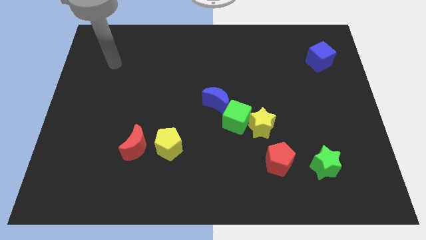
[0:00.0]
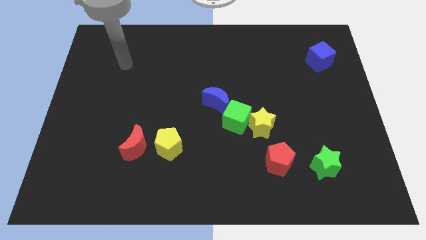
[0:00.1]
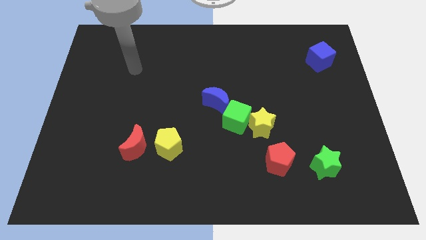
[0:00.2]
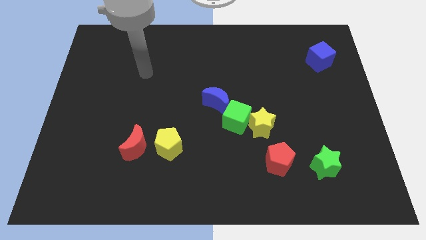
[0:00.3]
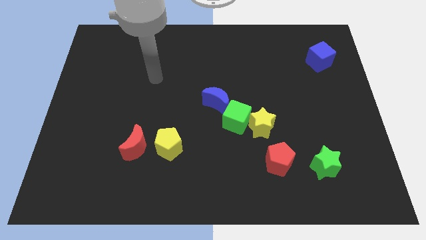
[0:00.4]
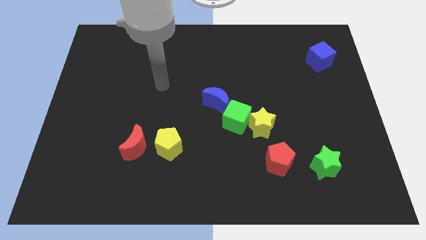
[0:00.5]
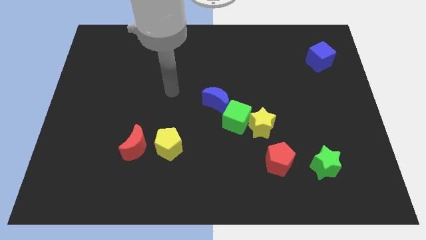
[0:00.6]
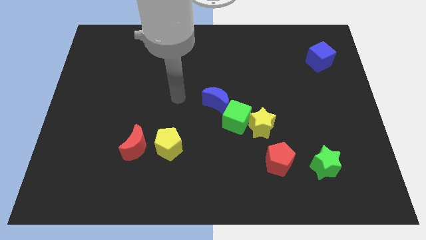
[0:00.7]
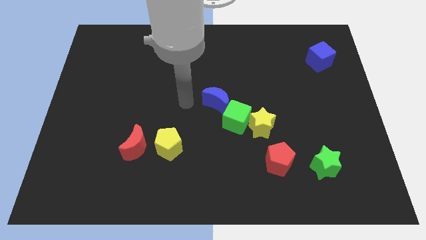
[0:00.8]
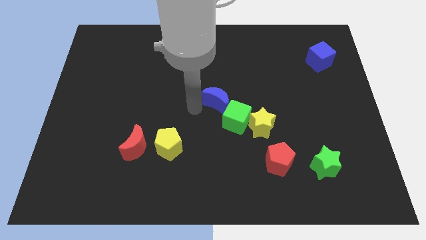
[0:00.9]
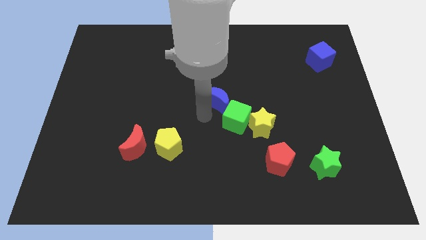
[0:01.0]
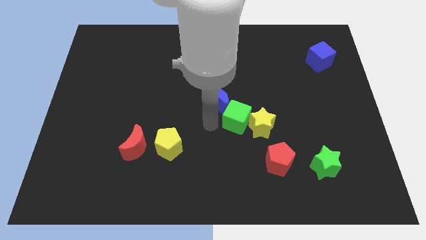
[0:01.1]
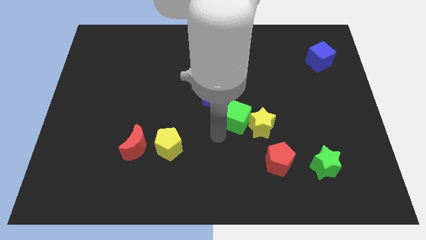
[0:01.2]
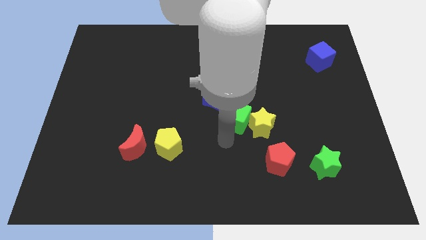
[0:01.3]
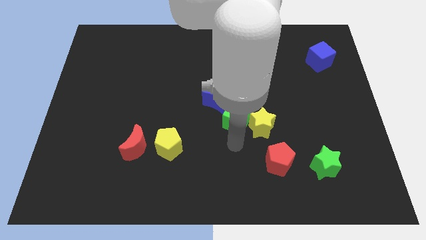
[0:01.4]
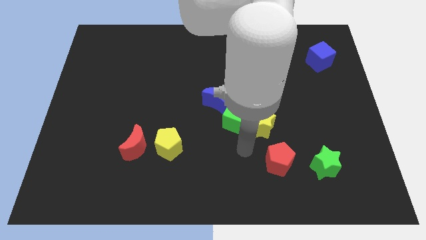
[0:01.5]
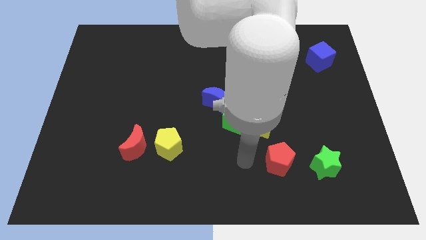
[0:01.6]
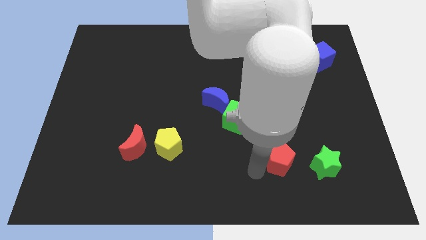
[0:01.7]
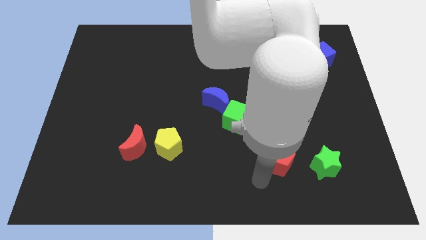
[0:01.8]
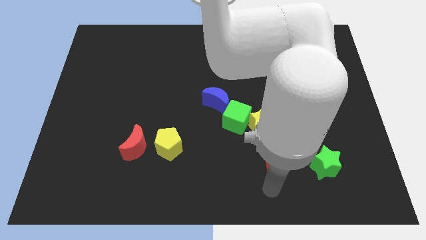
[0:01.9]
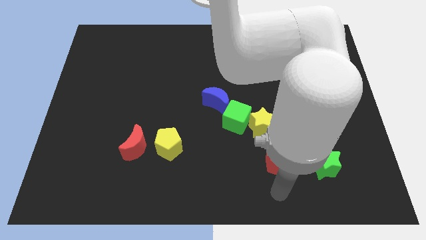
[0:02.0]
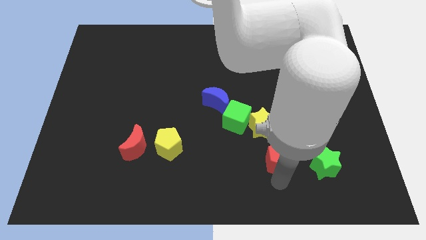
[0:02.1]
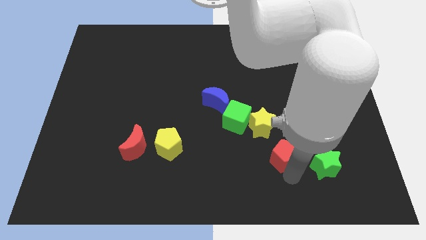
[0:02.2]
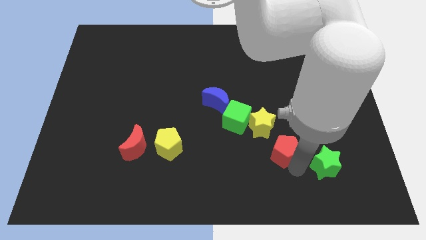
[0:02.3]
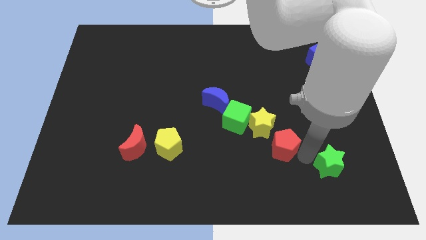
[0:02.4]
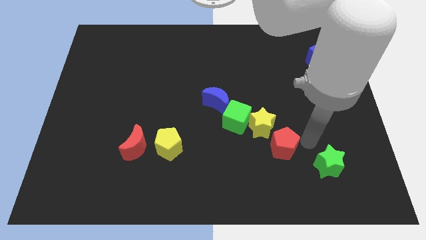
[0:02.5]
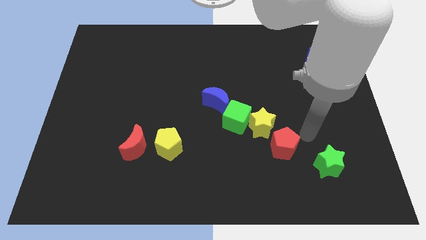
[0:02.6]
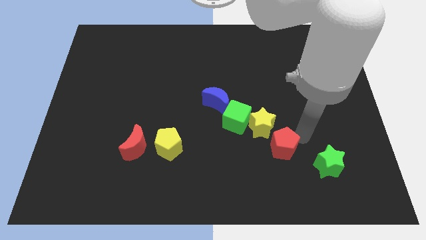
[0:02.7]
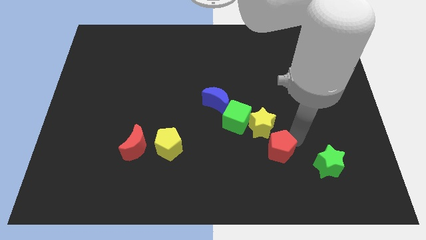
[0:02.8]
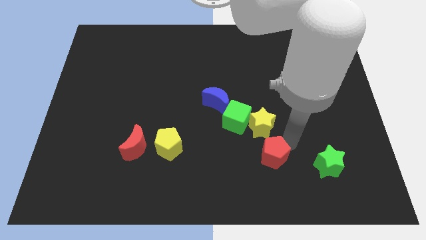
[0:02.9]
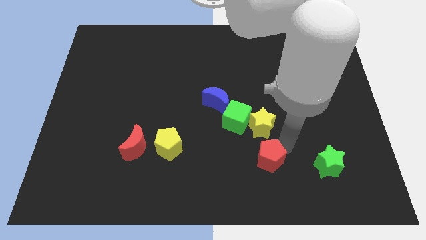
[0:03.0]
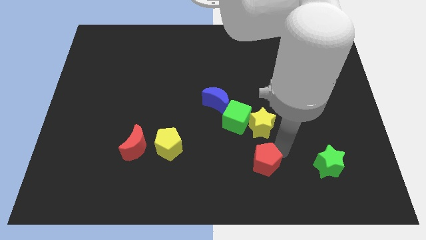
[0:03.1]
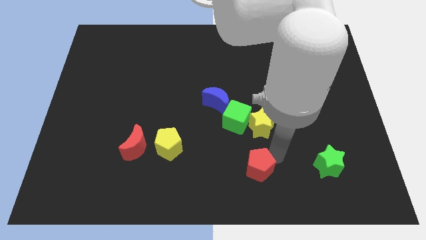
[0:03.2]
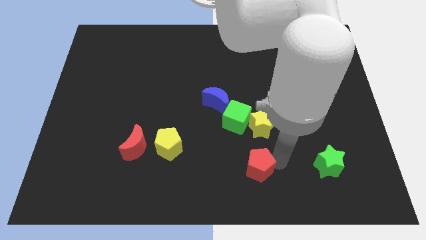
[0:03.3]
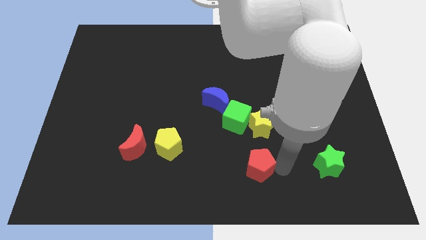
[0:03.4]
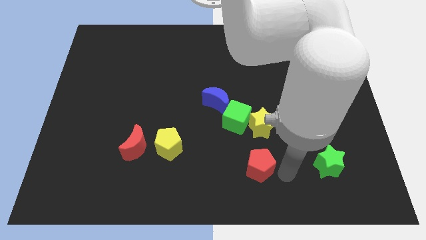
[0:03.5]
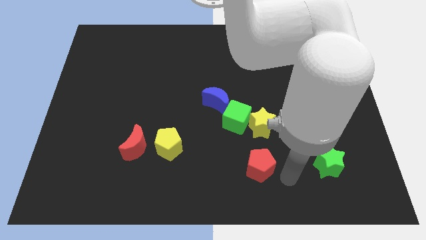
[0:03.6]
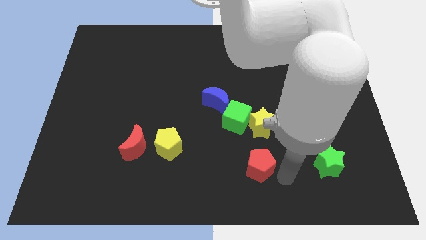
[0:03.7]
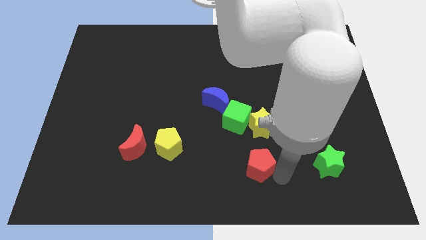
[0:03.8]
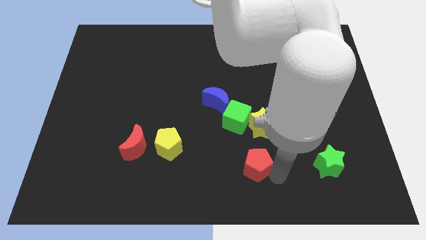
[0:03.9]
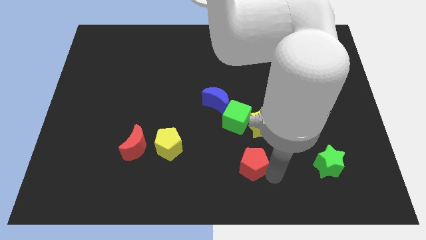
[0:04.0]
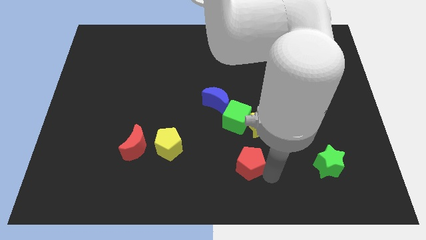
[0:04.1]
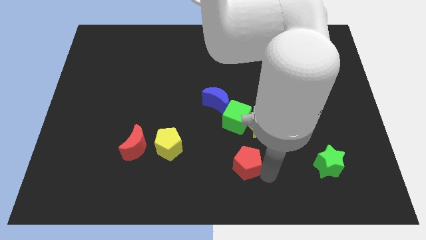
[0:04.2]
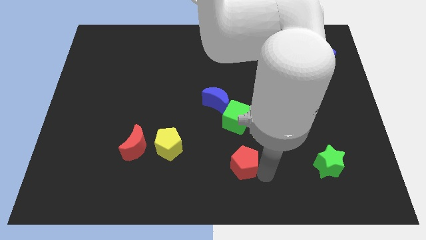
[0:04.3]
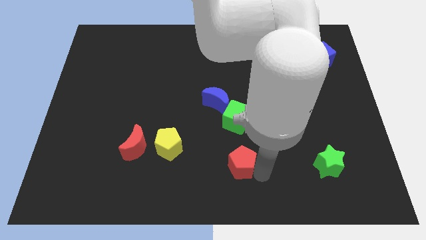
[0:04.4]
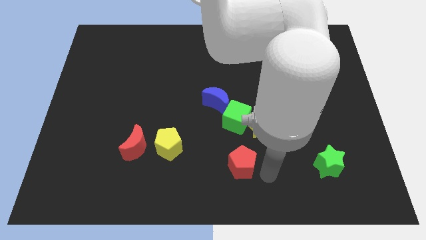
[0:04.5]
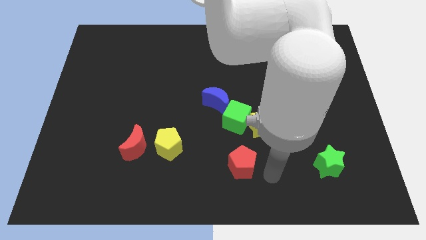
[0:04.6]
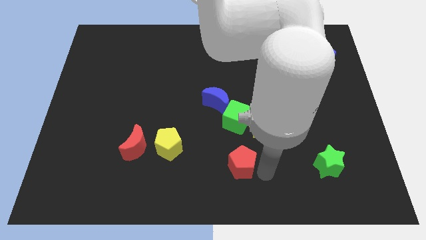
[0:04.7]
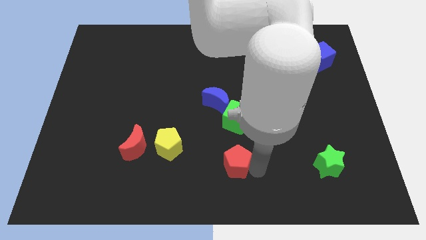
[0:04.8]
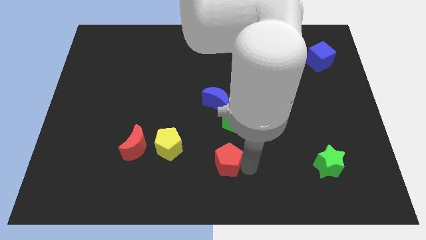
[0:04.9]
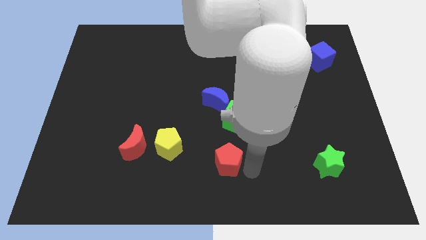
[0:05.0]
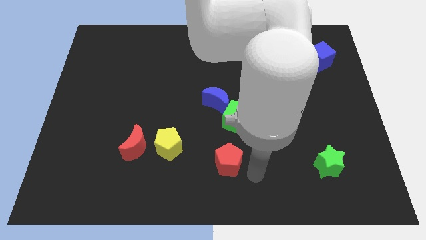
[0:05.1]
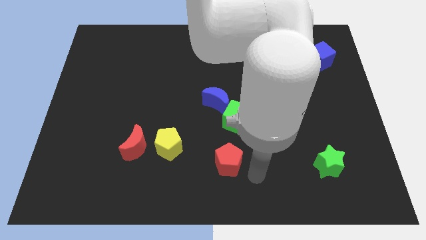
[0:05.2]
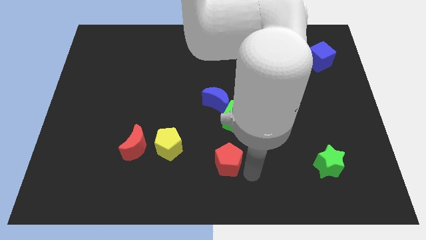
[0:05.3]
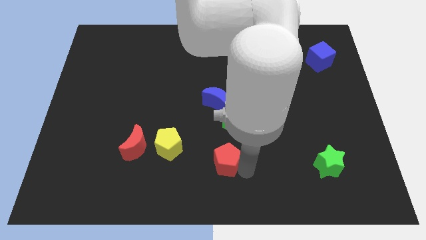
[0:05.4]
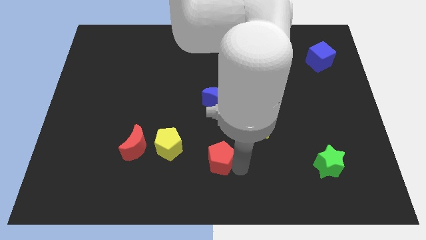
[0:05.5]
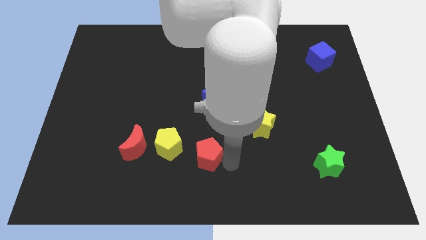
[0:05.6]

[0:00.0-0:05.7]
push the red pentagon to the right side of the red moon

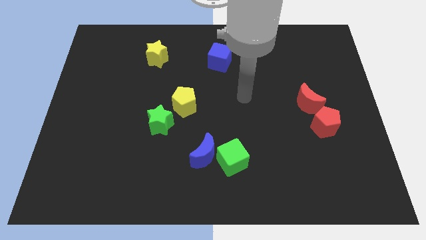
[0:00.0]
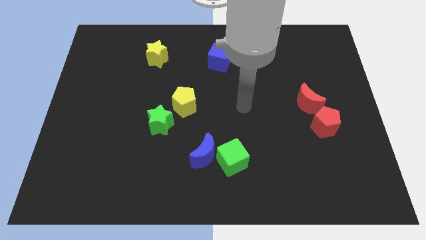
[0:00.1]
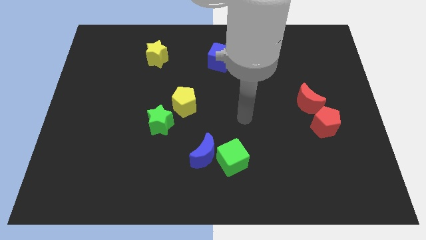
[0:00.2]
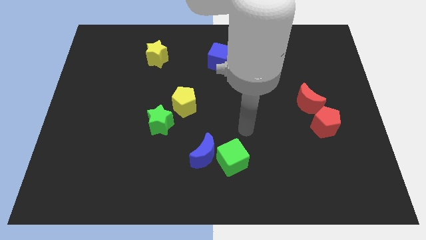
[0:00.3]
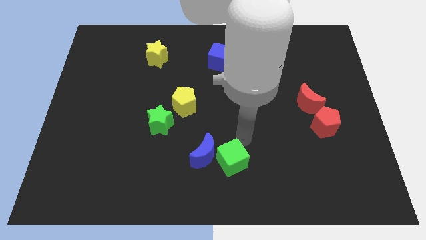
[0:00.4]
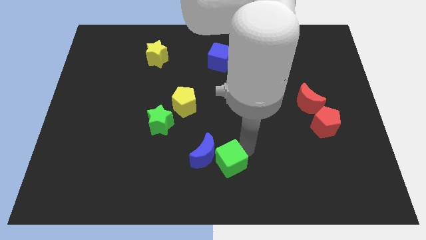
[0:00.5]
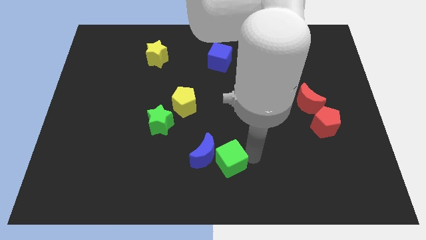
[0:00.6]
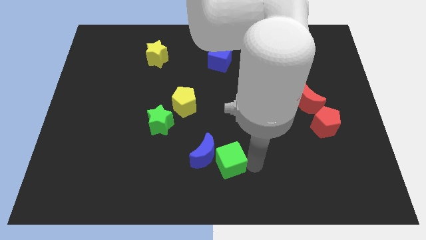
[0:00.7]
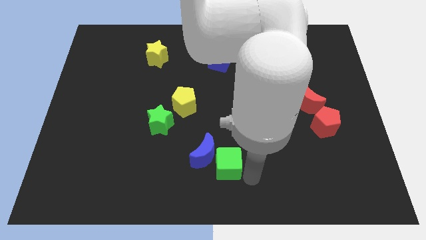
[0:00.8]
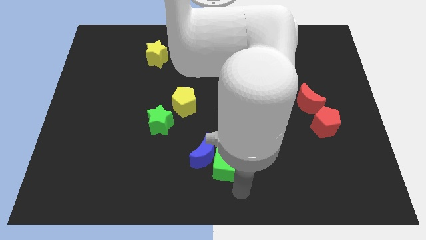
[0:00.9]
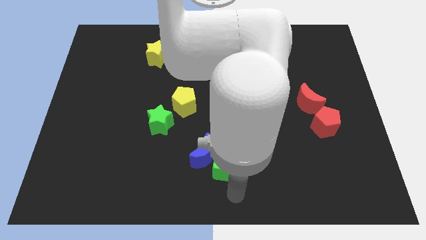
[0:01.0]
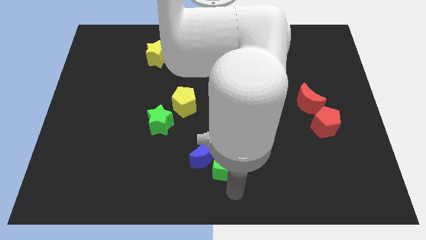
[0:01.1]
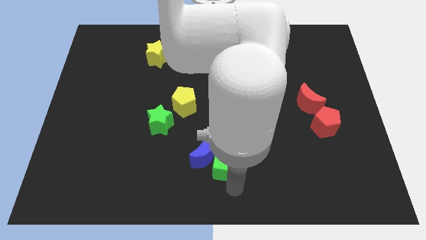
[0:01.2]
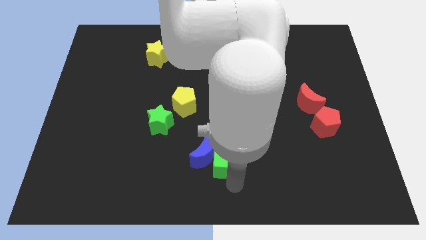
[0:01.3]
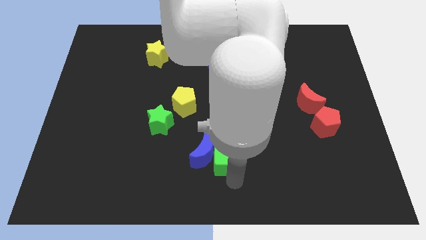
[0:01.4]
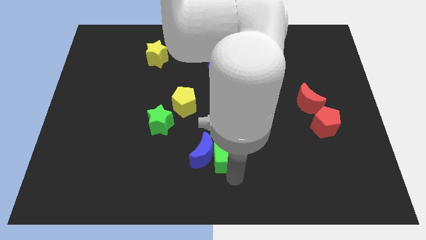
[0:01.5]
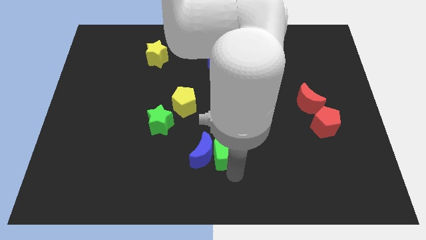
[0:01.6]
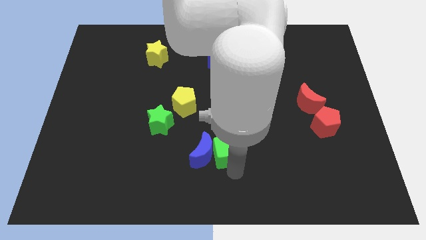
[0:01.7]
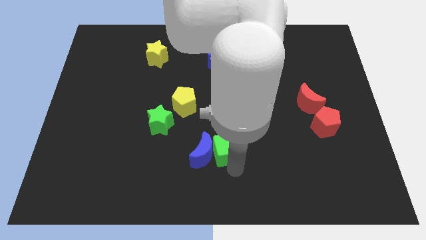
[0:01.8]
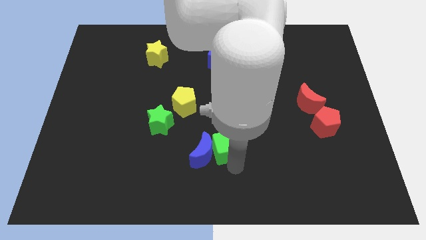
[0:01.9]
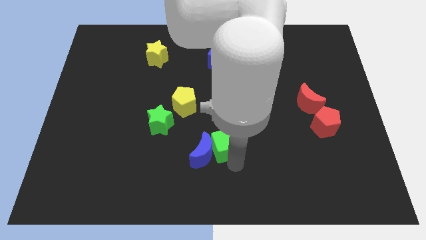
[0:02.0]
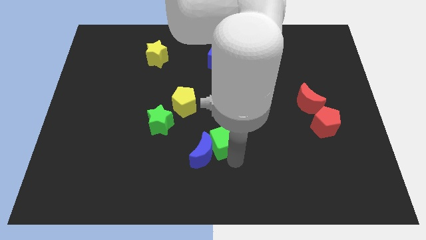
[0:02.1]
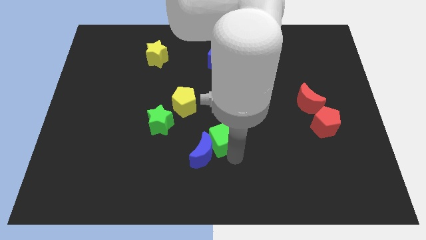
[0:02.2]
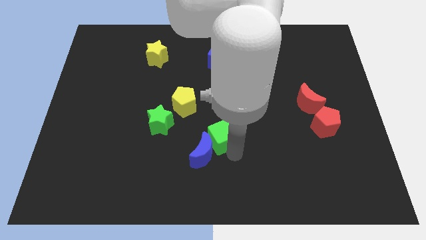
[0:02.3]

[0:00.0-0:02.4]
move the green cube diagonally down and to the right of the yellow pentagon
